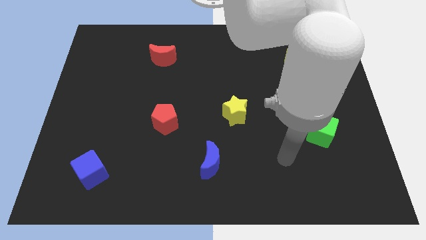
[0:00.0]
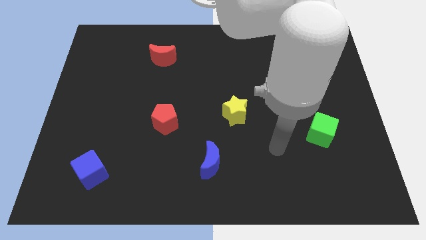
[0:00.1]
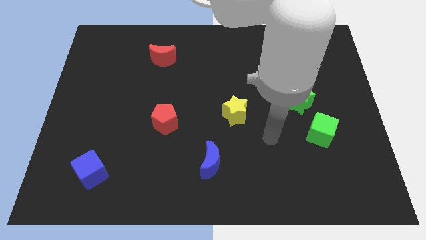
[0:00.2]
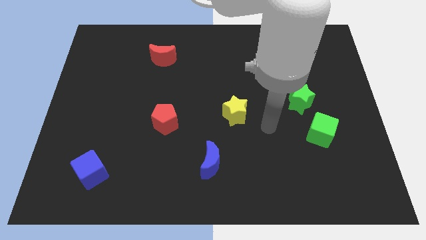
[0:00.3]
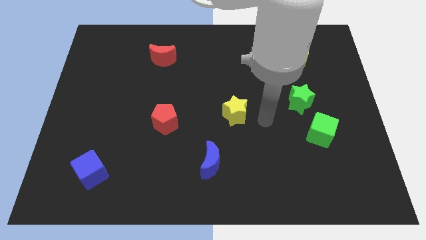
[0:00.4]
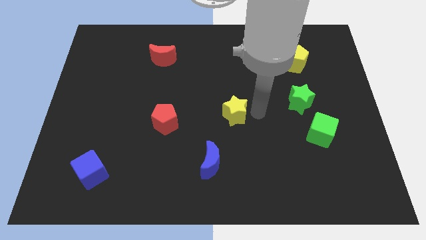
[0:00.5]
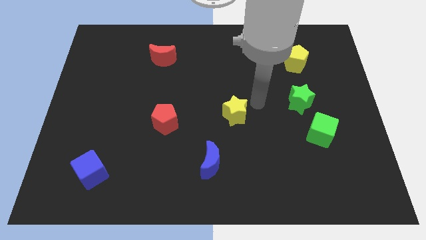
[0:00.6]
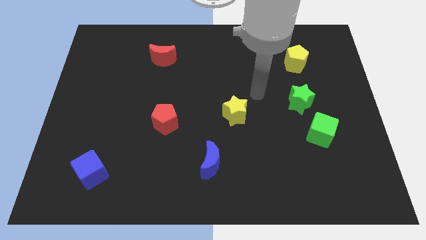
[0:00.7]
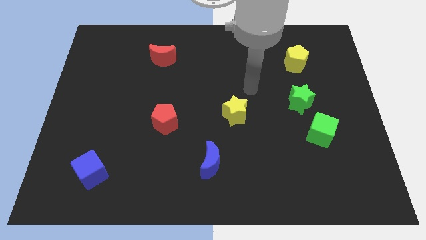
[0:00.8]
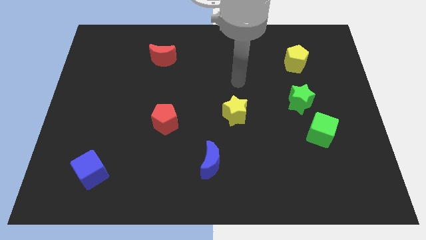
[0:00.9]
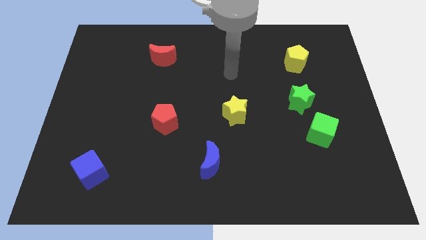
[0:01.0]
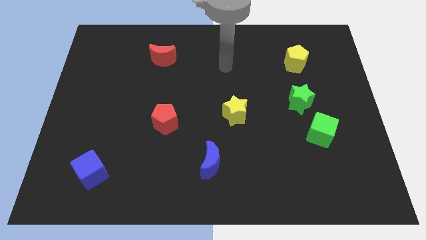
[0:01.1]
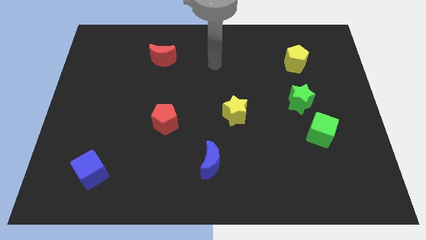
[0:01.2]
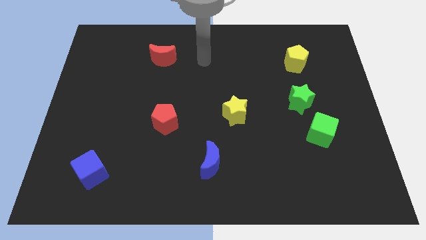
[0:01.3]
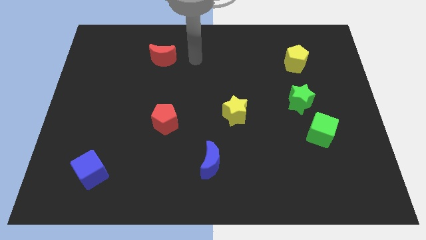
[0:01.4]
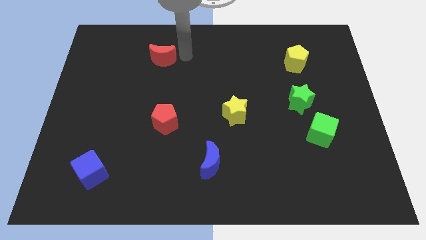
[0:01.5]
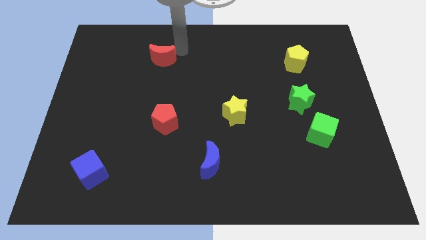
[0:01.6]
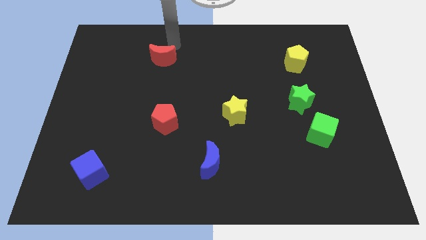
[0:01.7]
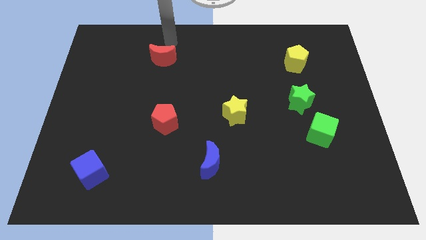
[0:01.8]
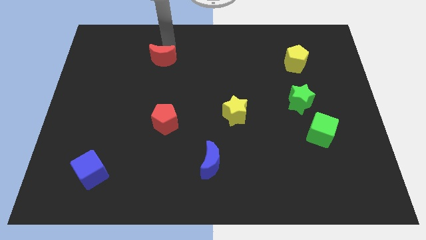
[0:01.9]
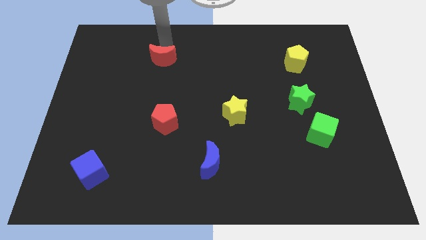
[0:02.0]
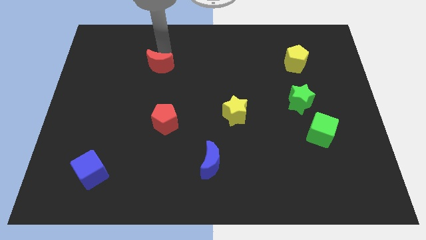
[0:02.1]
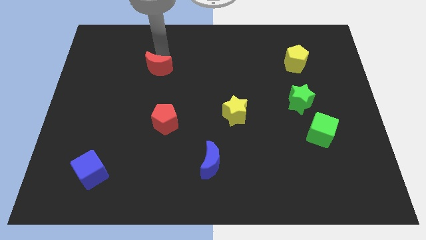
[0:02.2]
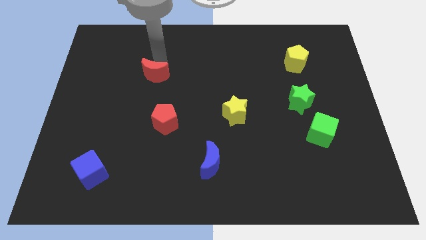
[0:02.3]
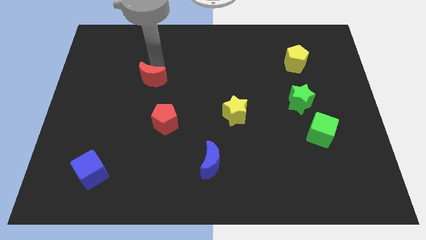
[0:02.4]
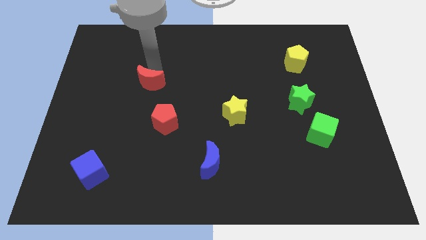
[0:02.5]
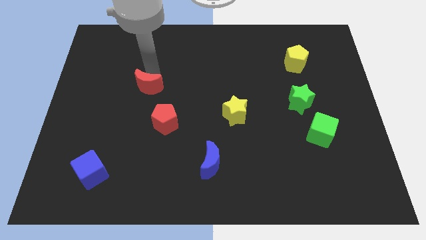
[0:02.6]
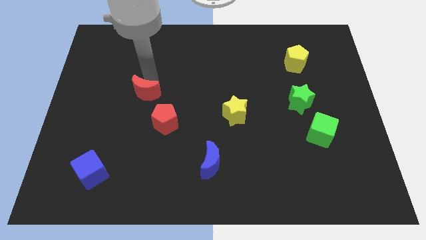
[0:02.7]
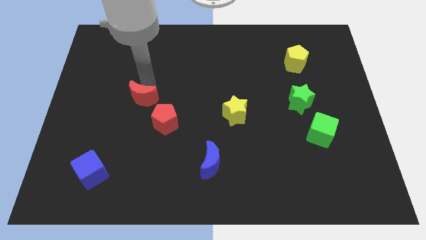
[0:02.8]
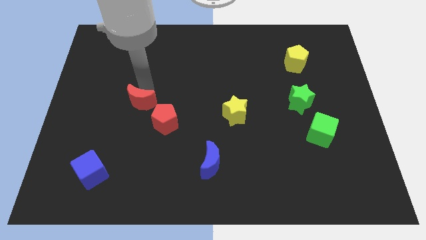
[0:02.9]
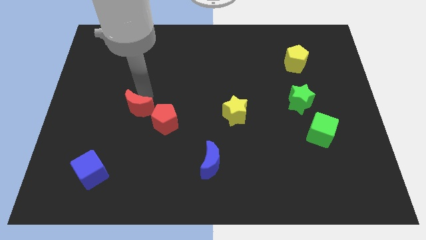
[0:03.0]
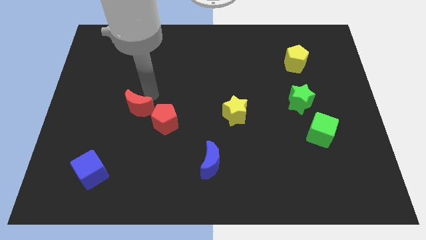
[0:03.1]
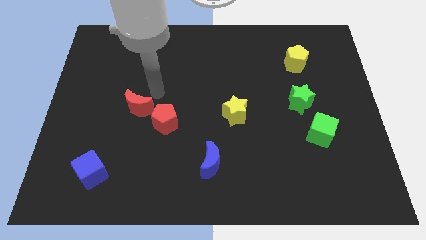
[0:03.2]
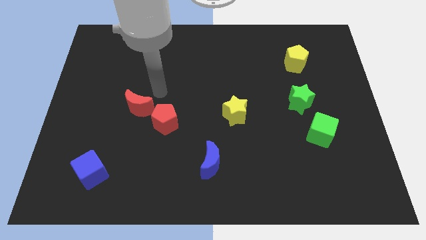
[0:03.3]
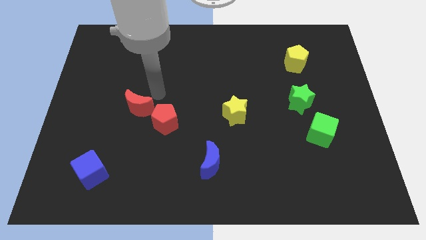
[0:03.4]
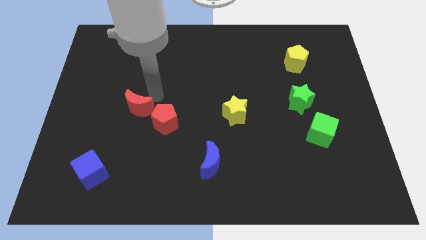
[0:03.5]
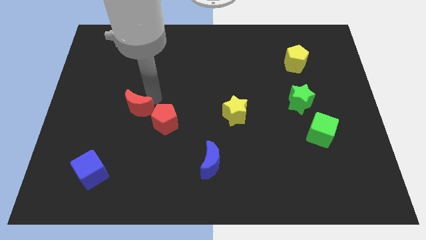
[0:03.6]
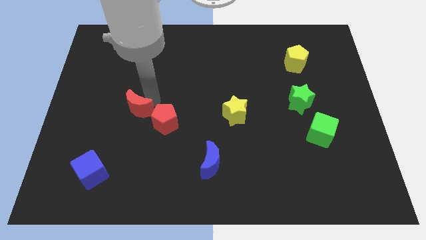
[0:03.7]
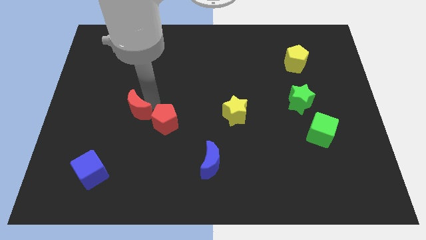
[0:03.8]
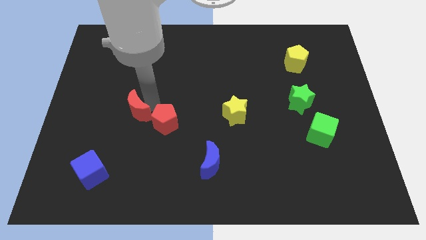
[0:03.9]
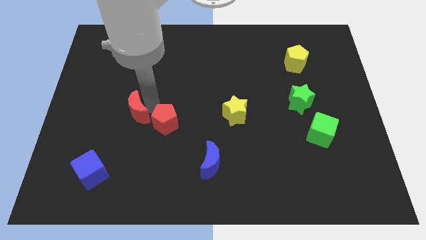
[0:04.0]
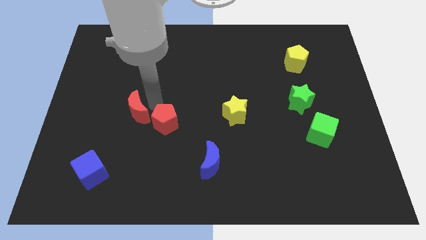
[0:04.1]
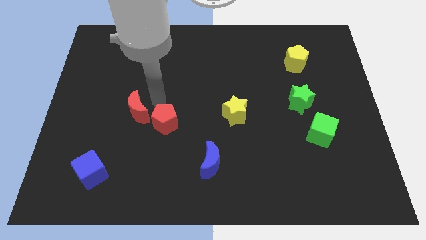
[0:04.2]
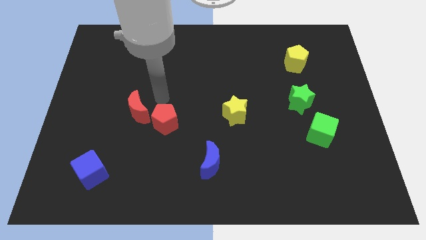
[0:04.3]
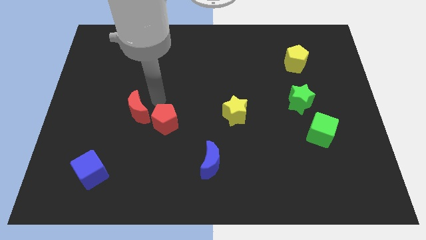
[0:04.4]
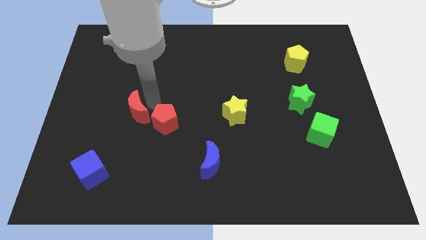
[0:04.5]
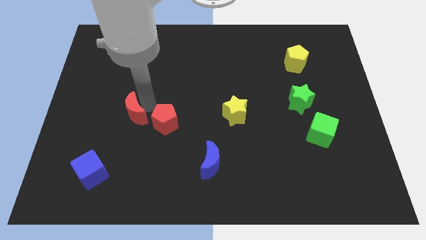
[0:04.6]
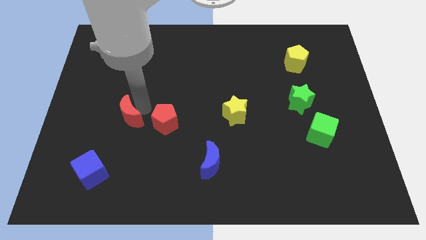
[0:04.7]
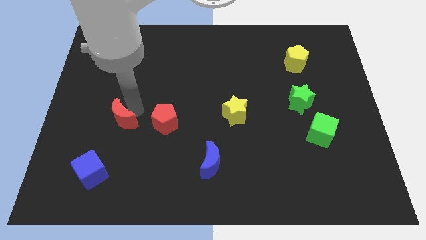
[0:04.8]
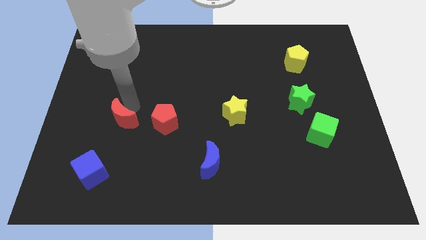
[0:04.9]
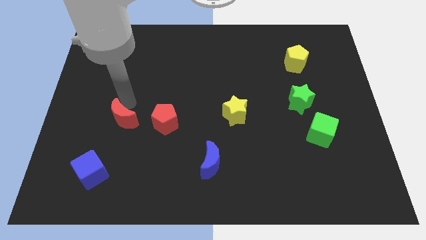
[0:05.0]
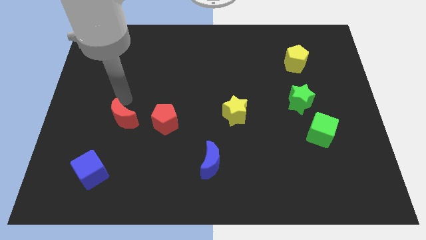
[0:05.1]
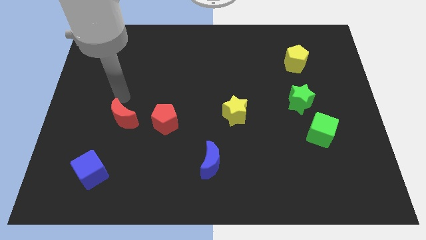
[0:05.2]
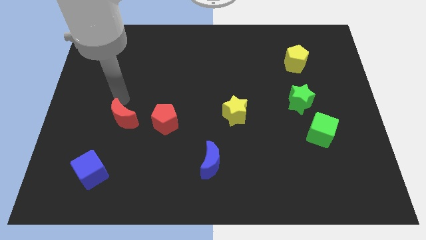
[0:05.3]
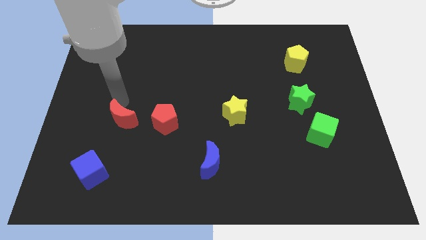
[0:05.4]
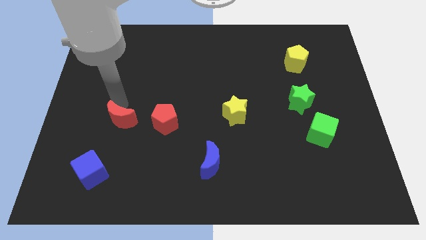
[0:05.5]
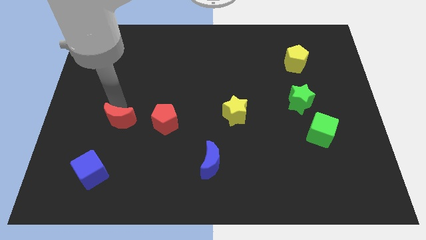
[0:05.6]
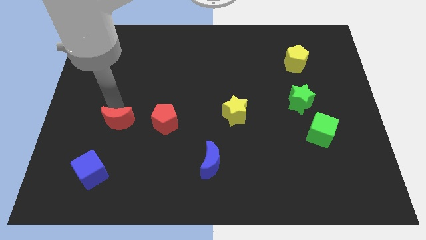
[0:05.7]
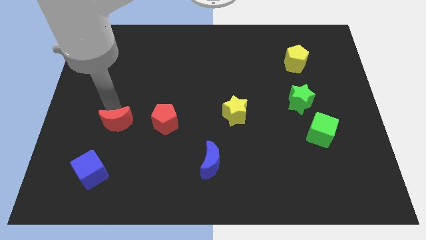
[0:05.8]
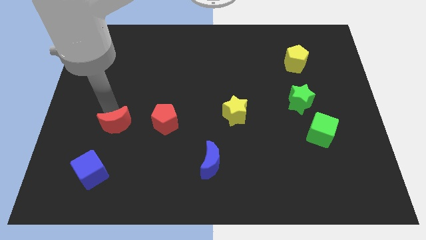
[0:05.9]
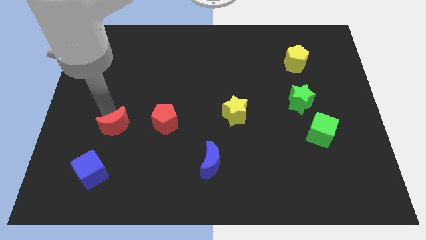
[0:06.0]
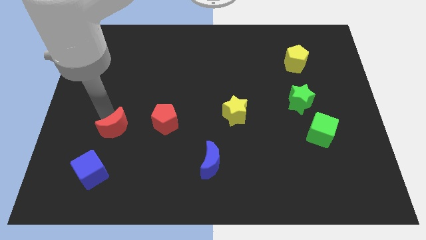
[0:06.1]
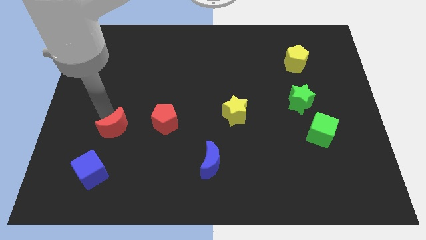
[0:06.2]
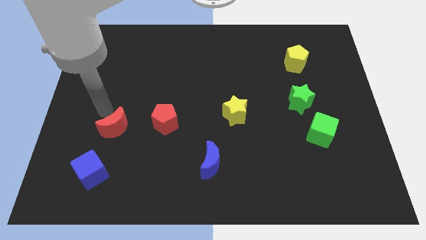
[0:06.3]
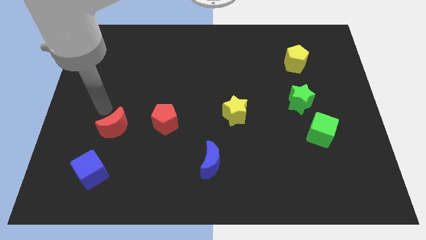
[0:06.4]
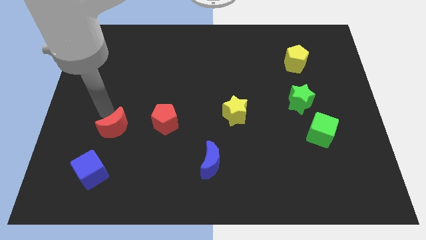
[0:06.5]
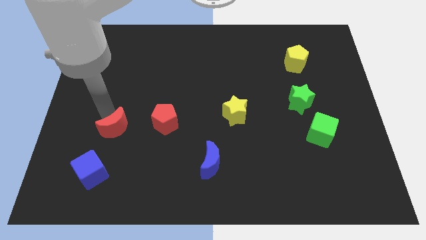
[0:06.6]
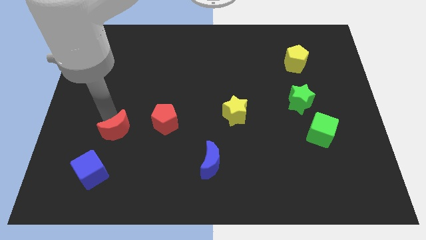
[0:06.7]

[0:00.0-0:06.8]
slide the red moon downwards

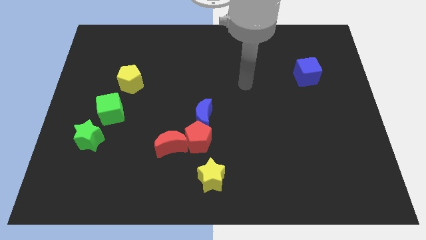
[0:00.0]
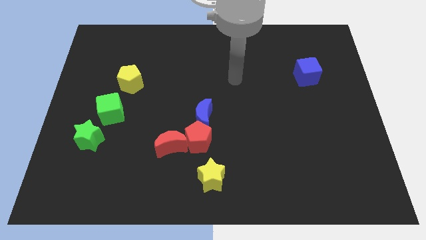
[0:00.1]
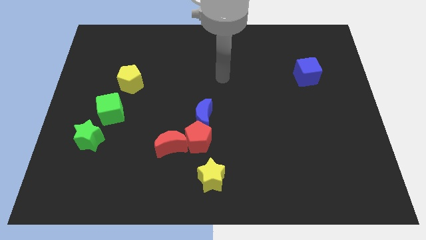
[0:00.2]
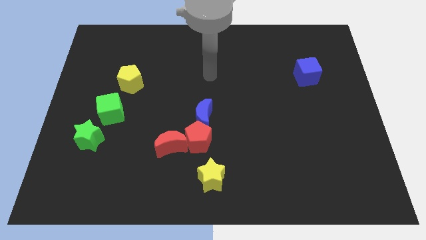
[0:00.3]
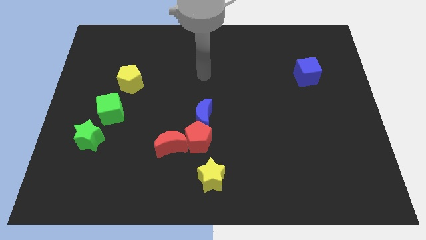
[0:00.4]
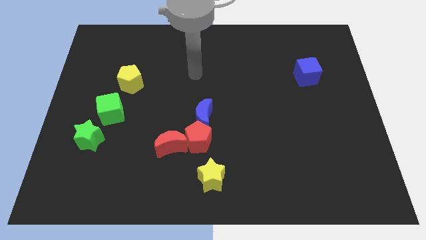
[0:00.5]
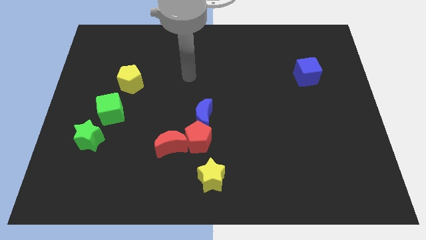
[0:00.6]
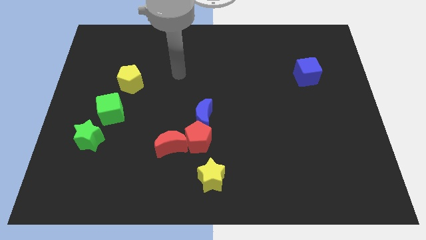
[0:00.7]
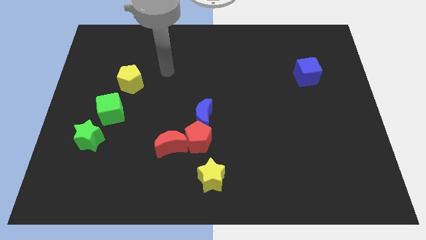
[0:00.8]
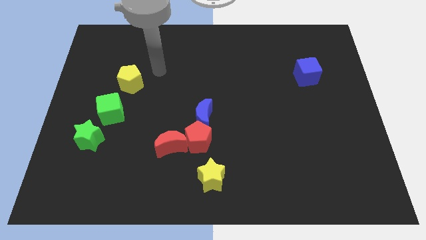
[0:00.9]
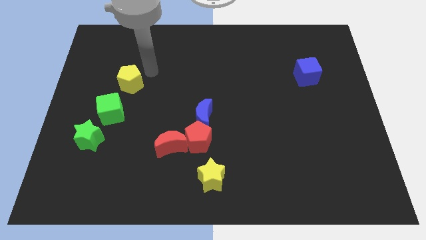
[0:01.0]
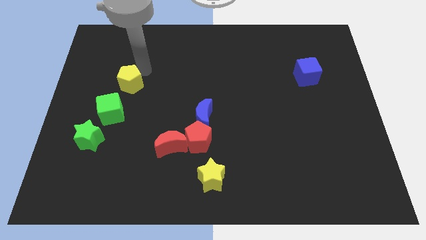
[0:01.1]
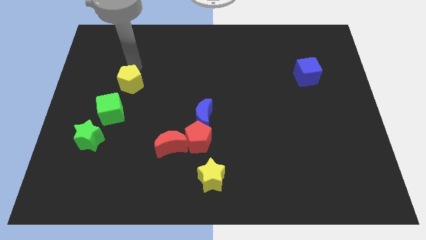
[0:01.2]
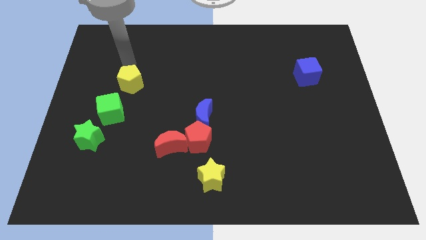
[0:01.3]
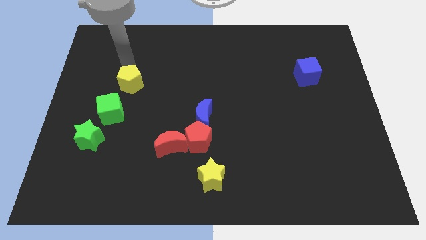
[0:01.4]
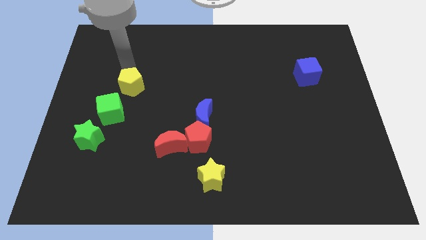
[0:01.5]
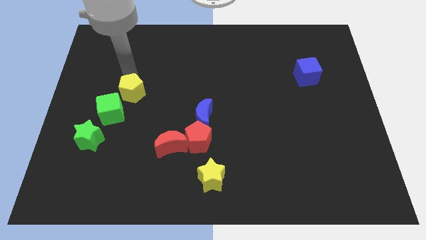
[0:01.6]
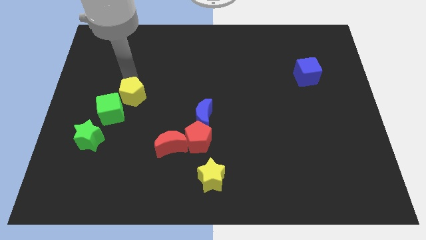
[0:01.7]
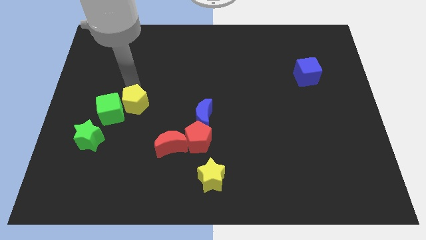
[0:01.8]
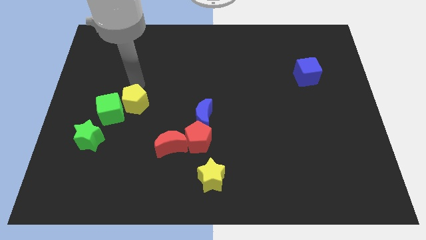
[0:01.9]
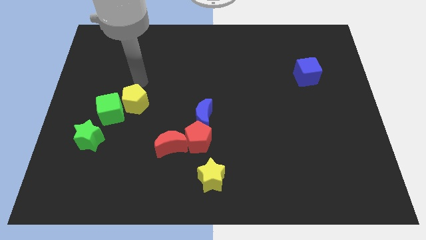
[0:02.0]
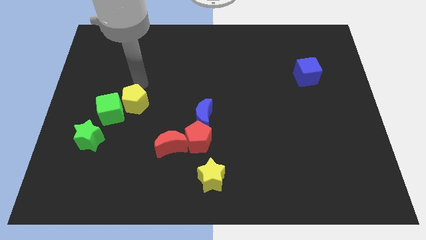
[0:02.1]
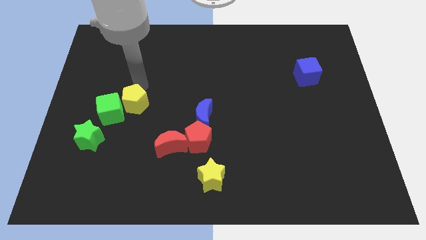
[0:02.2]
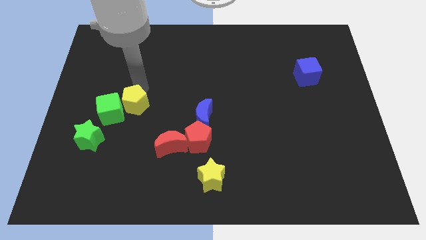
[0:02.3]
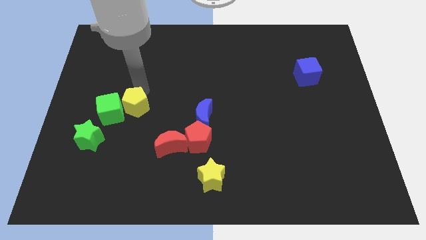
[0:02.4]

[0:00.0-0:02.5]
move the yellow pentagon downwards slightly
